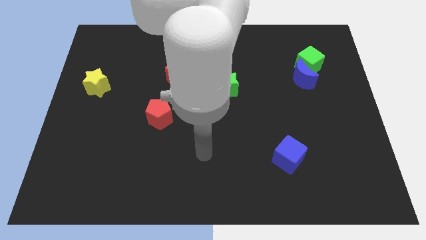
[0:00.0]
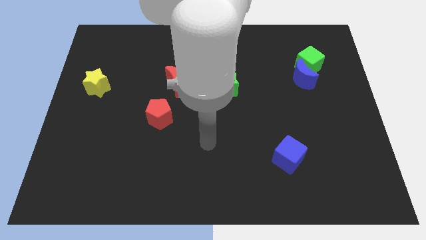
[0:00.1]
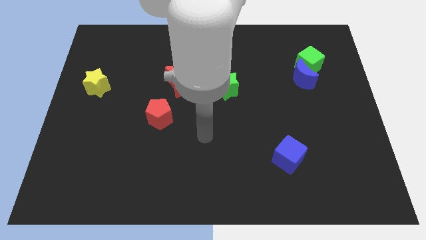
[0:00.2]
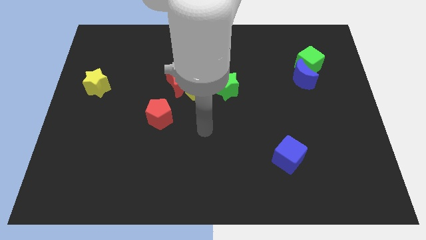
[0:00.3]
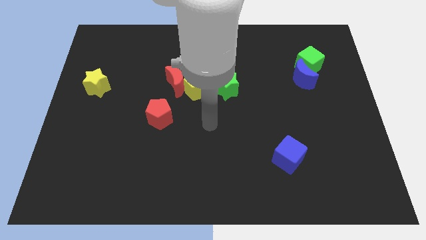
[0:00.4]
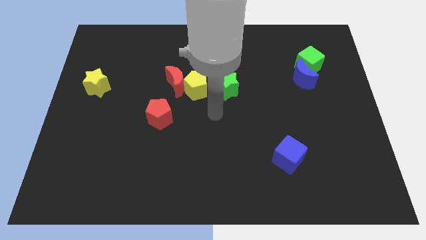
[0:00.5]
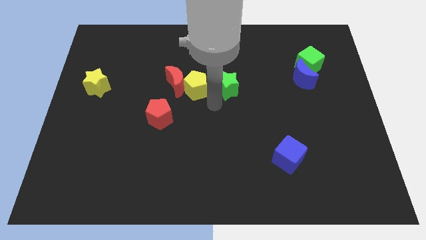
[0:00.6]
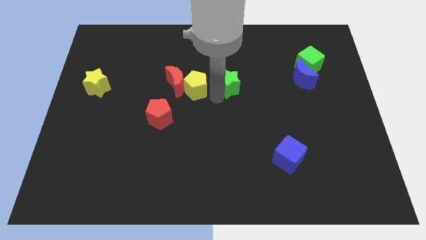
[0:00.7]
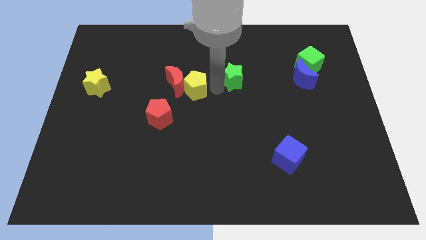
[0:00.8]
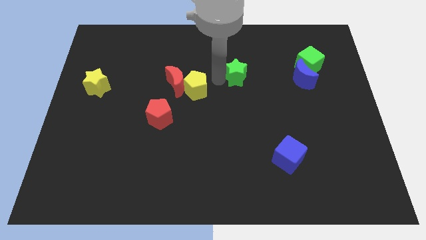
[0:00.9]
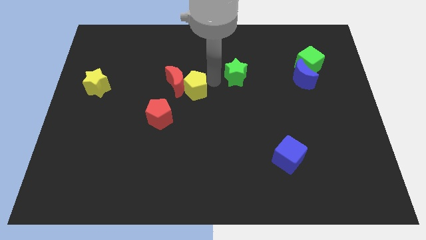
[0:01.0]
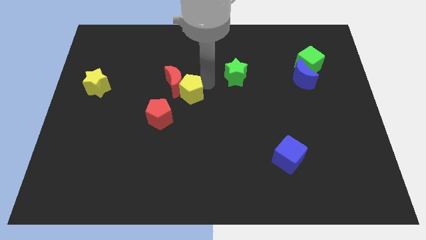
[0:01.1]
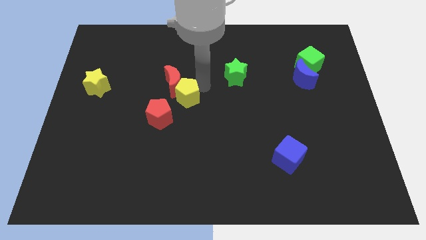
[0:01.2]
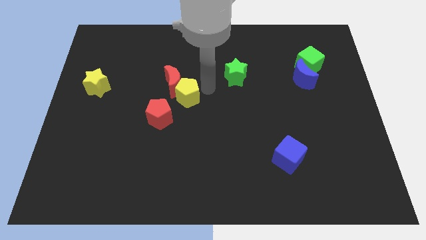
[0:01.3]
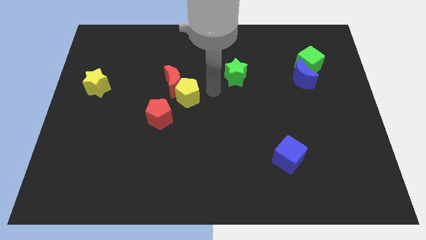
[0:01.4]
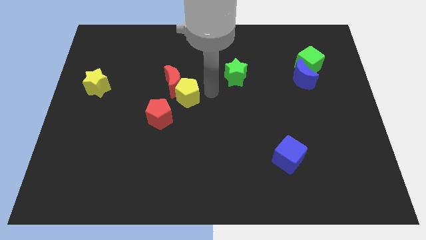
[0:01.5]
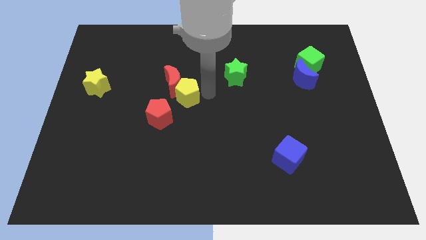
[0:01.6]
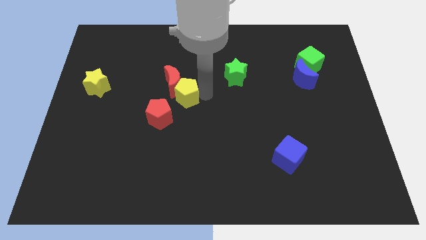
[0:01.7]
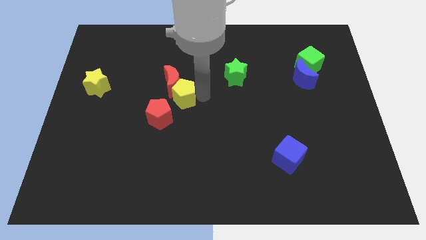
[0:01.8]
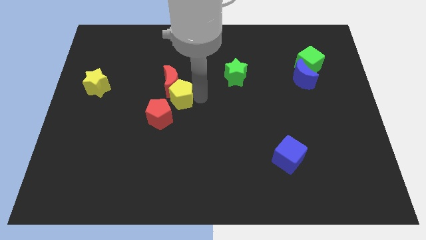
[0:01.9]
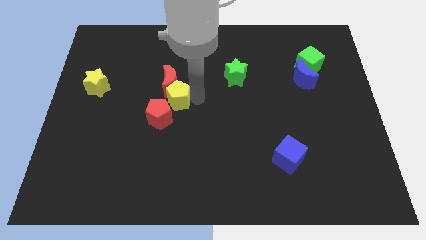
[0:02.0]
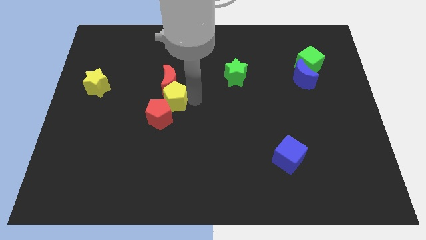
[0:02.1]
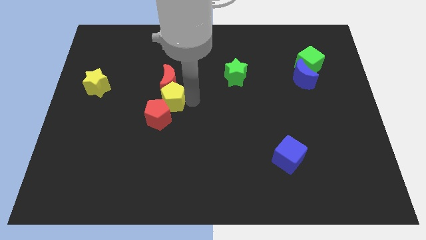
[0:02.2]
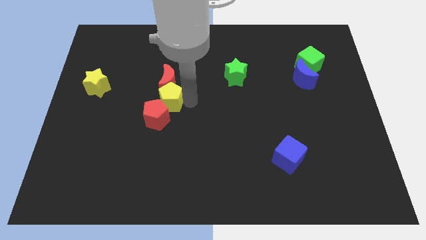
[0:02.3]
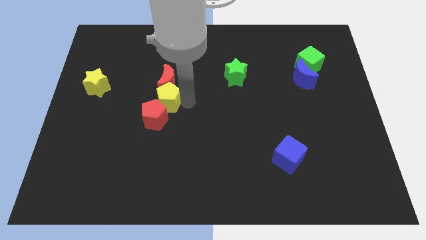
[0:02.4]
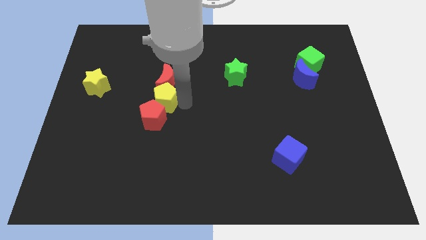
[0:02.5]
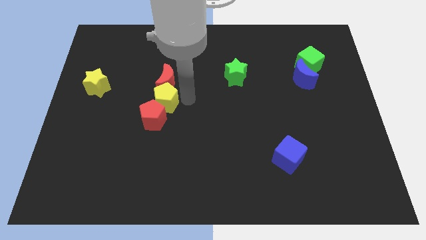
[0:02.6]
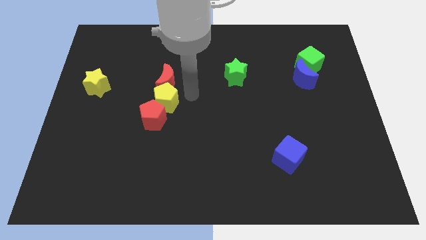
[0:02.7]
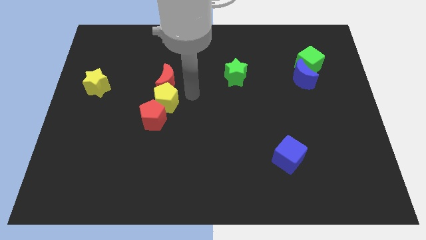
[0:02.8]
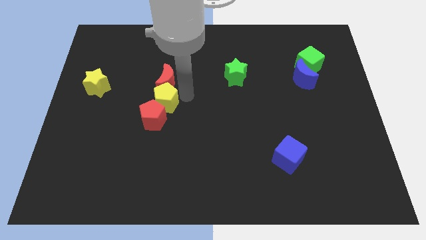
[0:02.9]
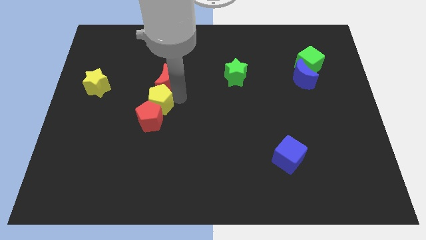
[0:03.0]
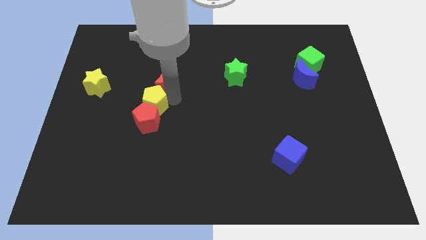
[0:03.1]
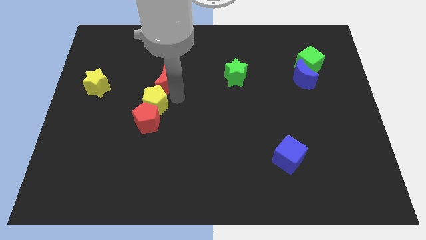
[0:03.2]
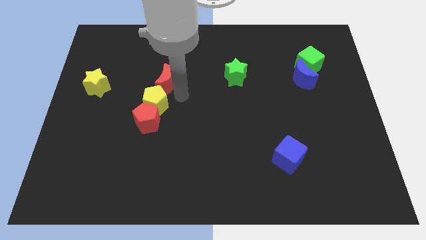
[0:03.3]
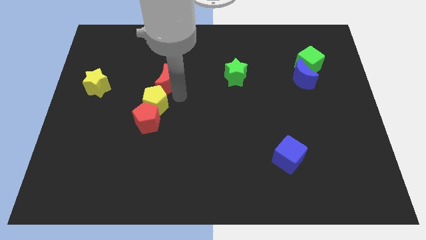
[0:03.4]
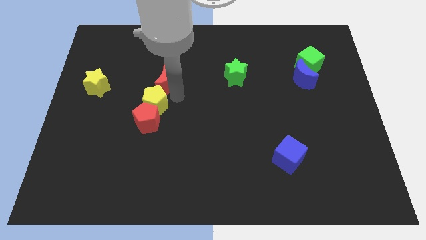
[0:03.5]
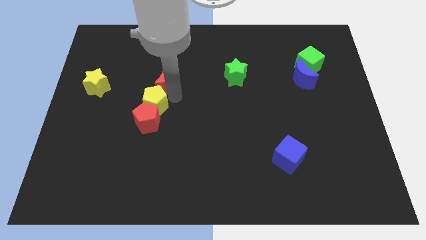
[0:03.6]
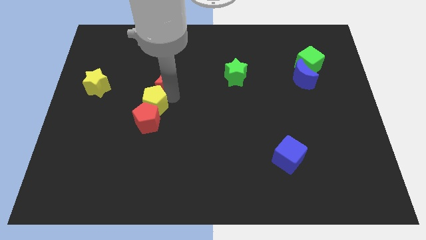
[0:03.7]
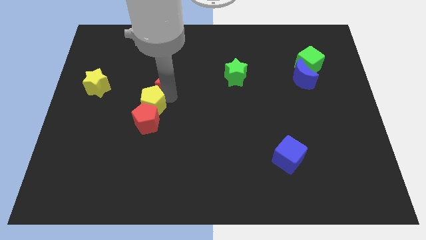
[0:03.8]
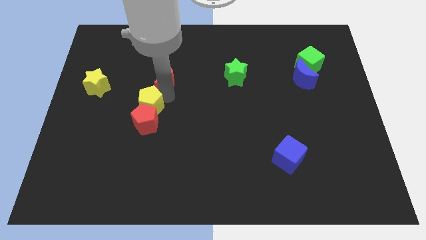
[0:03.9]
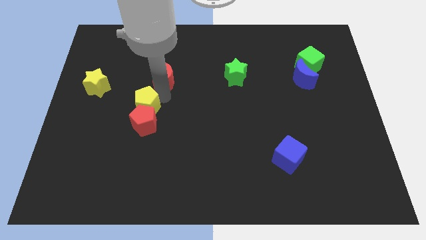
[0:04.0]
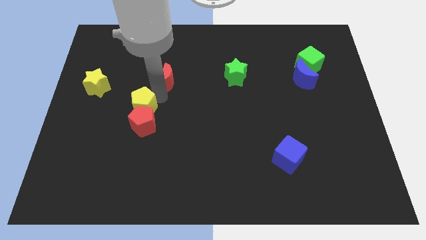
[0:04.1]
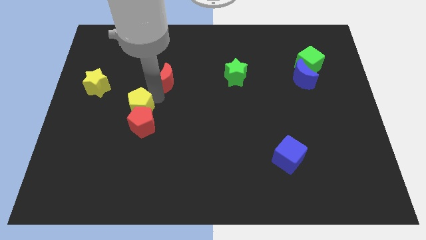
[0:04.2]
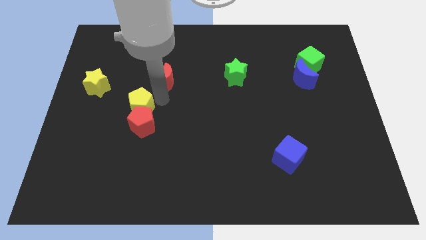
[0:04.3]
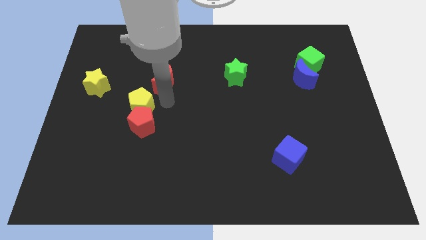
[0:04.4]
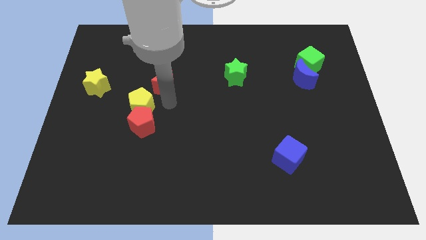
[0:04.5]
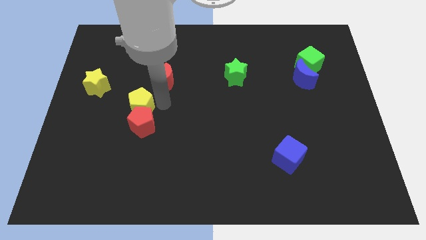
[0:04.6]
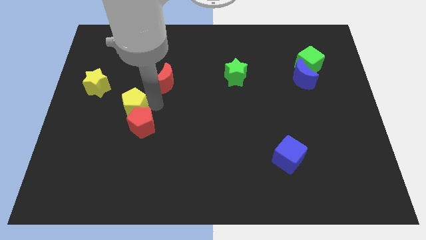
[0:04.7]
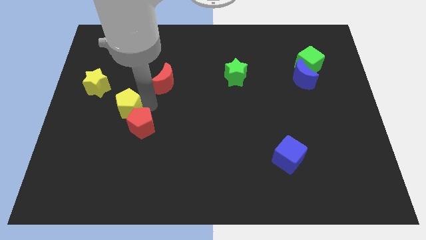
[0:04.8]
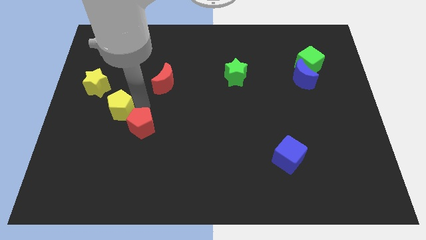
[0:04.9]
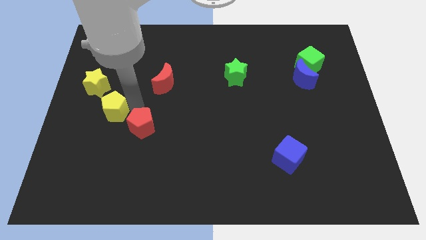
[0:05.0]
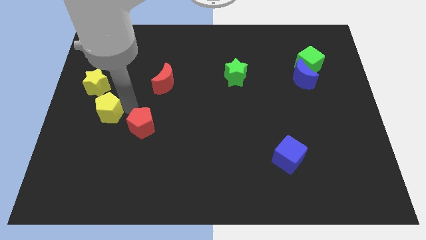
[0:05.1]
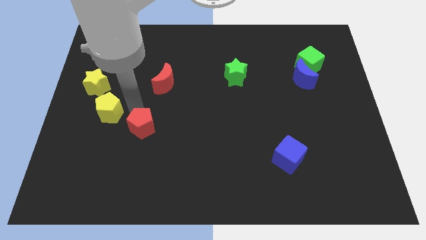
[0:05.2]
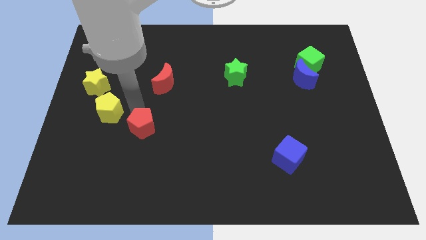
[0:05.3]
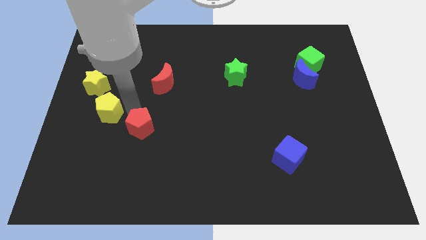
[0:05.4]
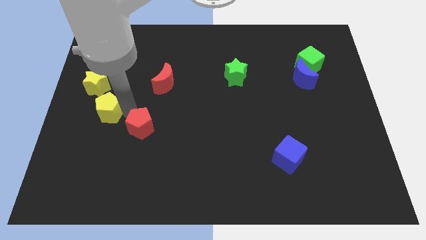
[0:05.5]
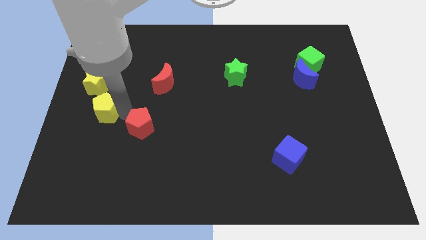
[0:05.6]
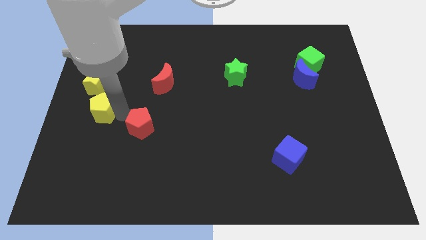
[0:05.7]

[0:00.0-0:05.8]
slide the yellow pentagon to the left side of the board
